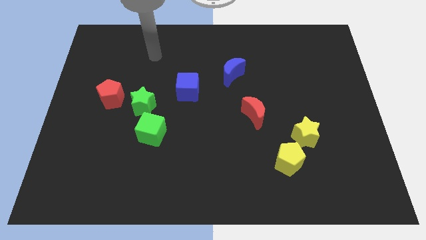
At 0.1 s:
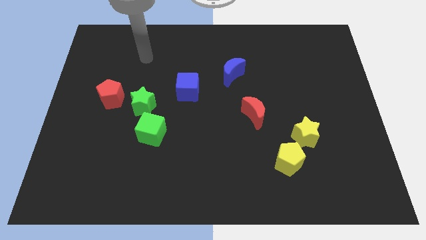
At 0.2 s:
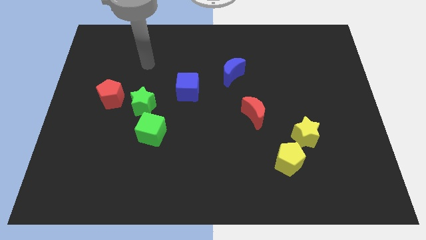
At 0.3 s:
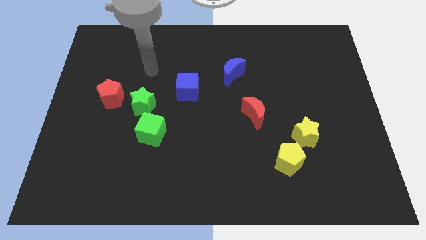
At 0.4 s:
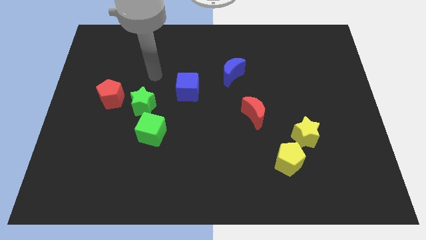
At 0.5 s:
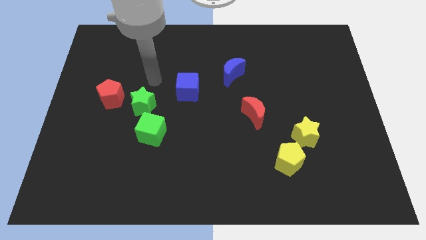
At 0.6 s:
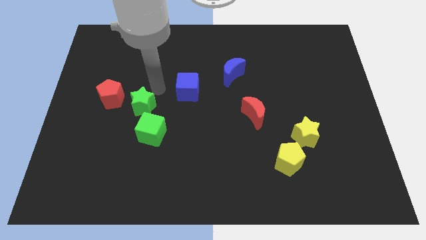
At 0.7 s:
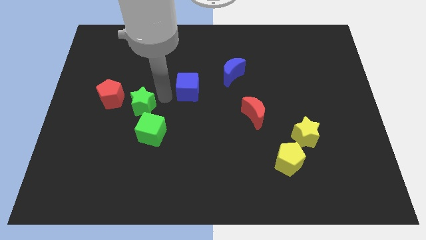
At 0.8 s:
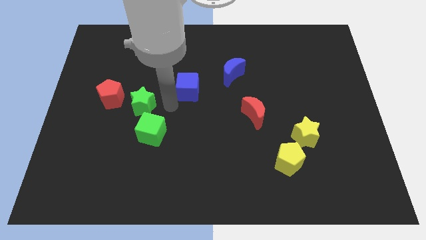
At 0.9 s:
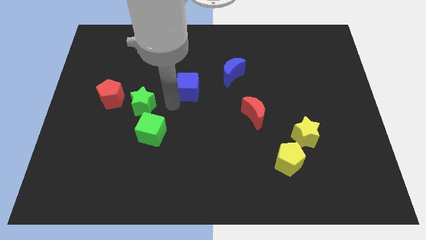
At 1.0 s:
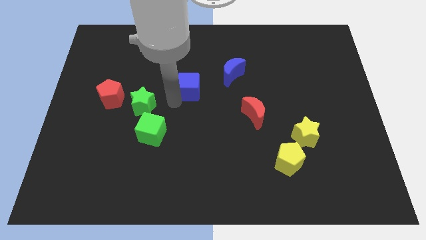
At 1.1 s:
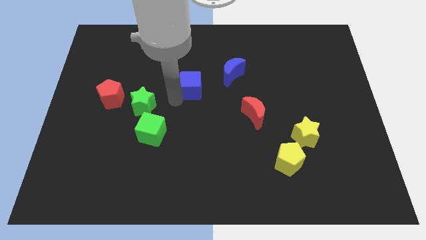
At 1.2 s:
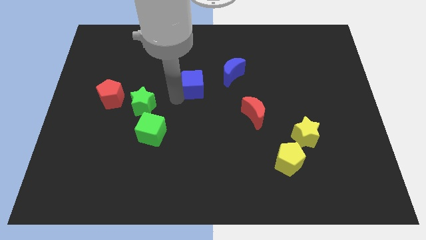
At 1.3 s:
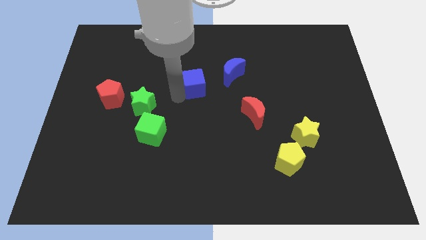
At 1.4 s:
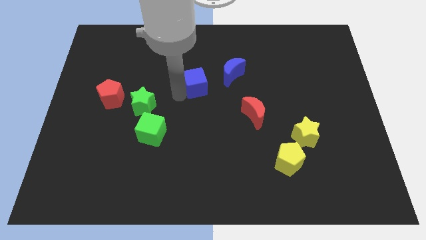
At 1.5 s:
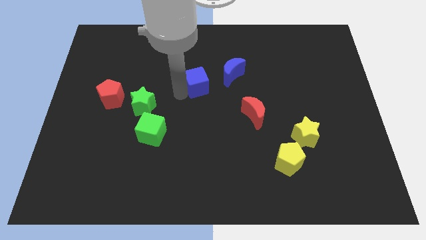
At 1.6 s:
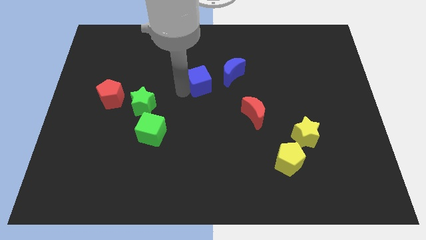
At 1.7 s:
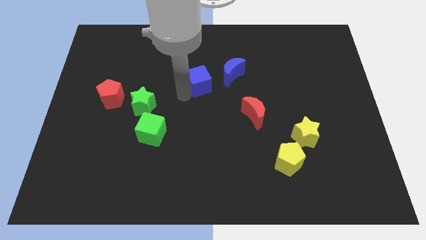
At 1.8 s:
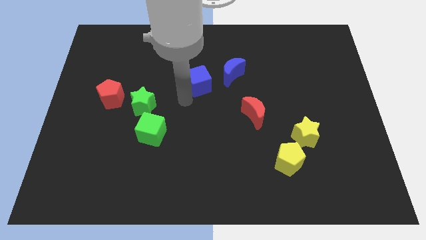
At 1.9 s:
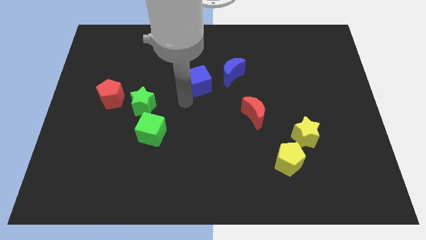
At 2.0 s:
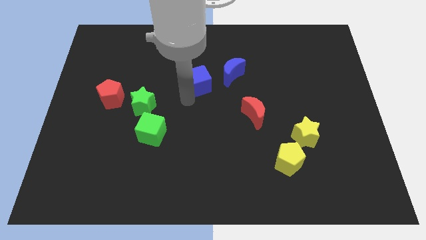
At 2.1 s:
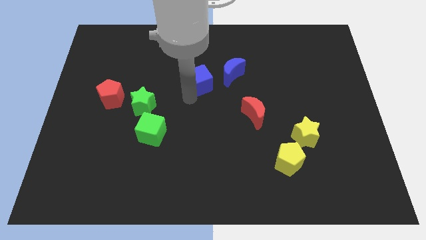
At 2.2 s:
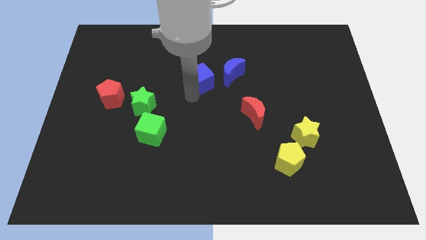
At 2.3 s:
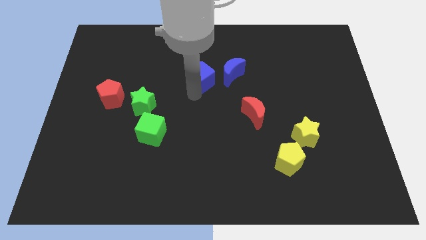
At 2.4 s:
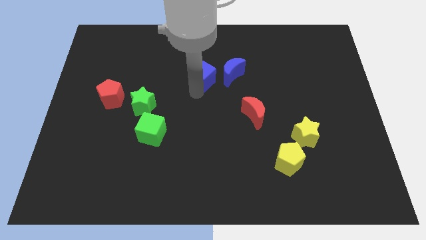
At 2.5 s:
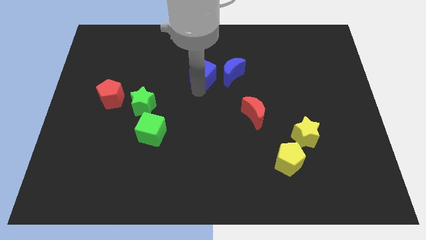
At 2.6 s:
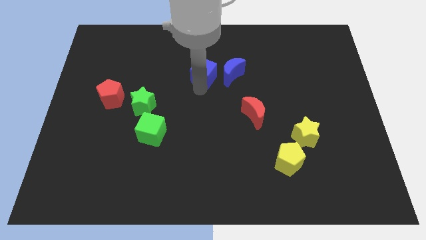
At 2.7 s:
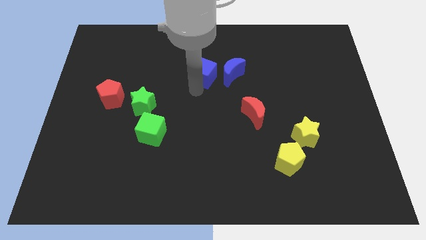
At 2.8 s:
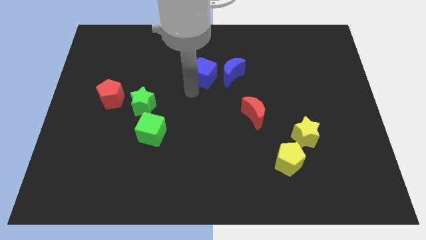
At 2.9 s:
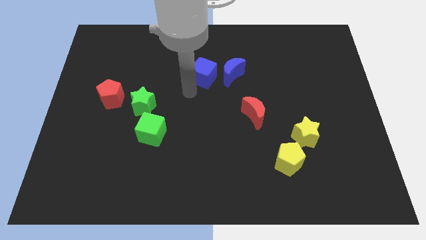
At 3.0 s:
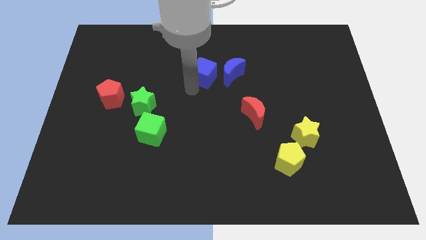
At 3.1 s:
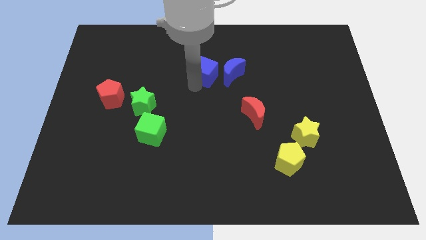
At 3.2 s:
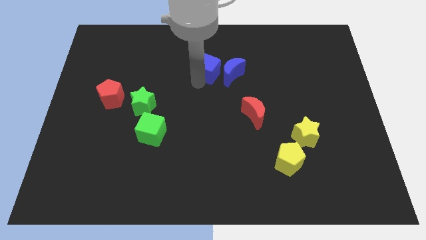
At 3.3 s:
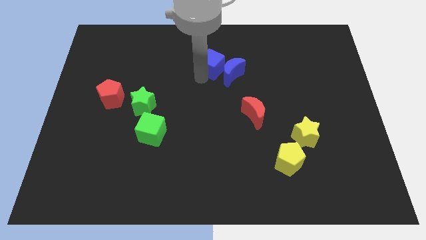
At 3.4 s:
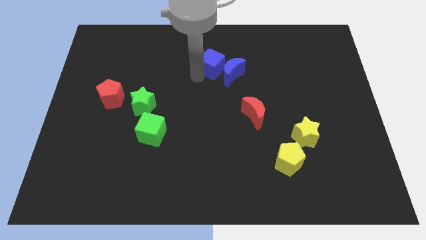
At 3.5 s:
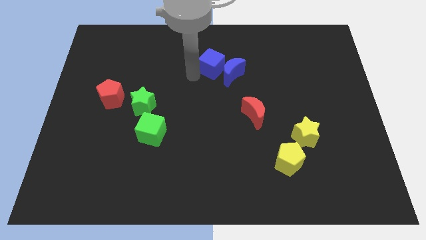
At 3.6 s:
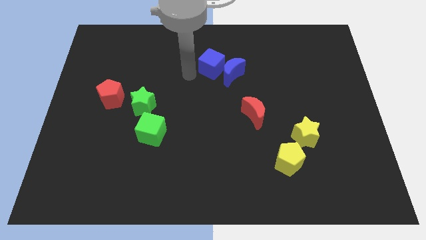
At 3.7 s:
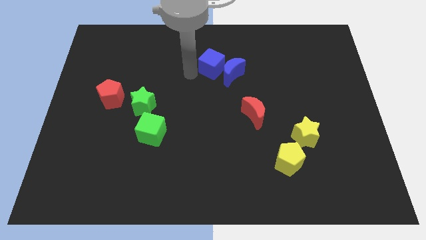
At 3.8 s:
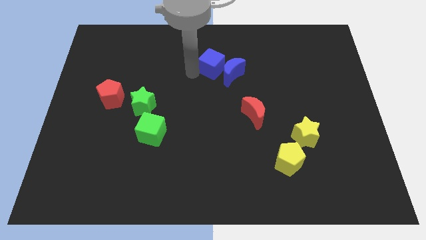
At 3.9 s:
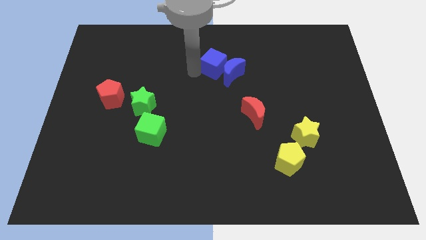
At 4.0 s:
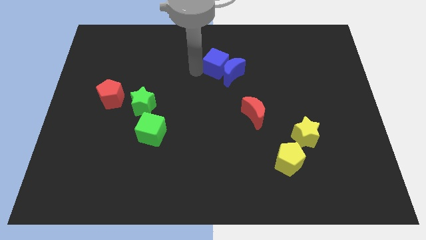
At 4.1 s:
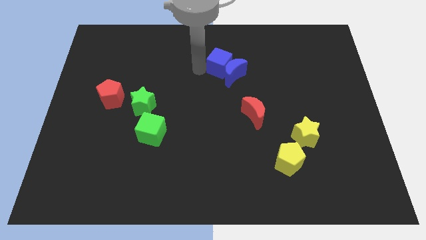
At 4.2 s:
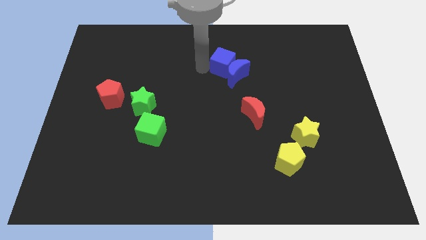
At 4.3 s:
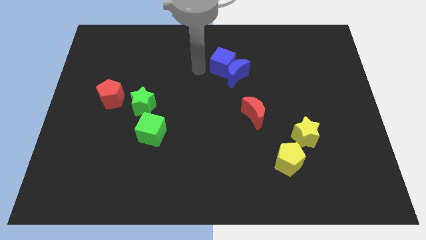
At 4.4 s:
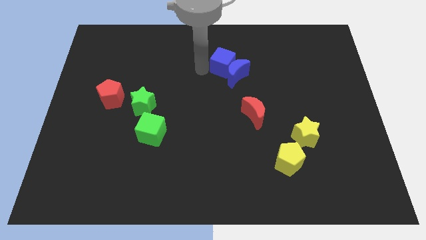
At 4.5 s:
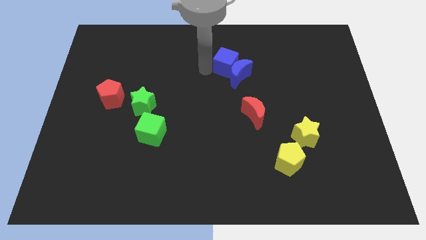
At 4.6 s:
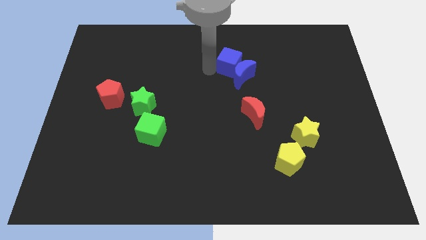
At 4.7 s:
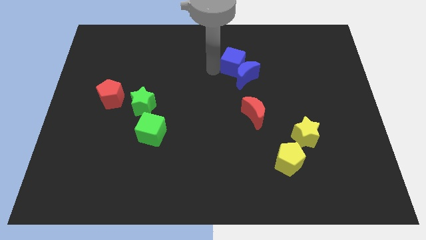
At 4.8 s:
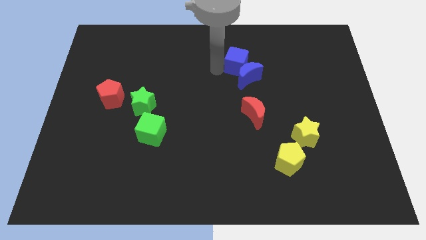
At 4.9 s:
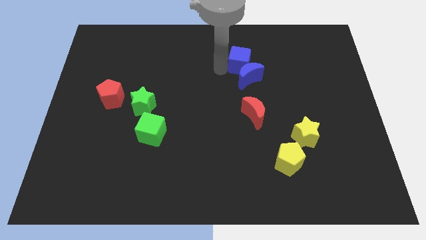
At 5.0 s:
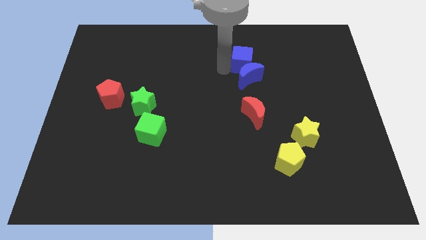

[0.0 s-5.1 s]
move the blue cube diagonally up and to the right of the blue moon

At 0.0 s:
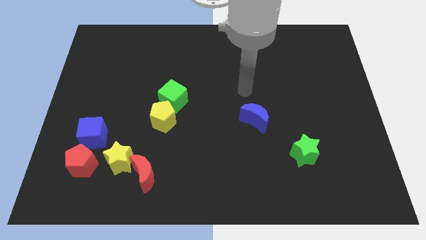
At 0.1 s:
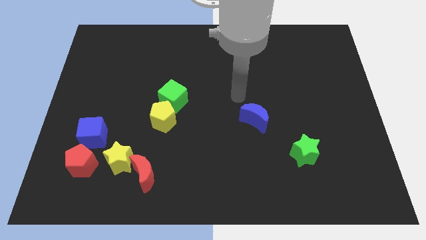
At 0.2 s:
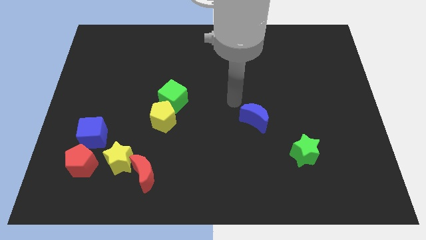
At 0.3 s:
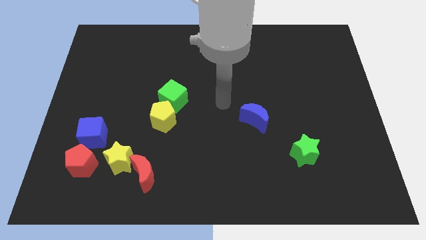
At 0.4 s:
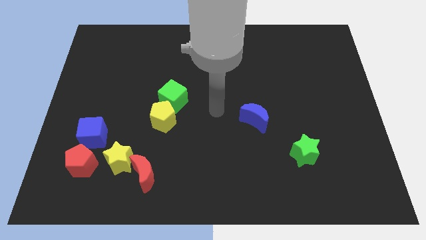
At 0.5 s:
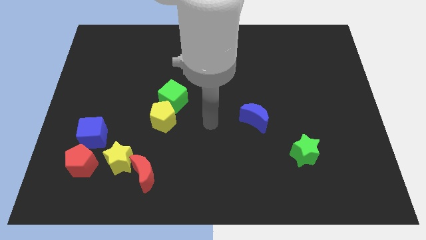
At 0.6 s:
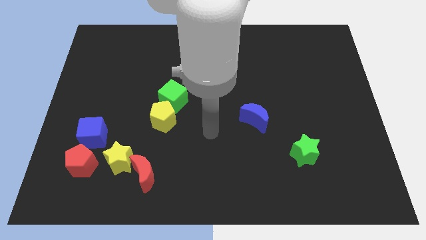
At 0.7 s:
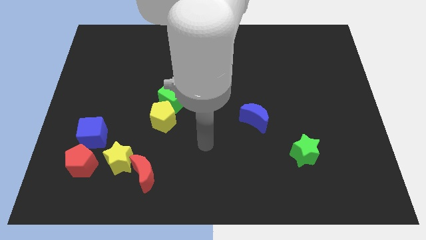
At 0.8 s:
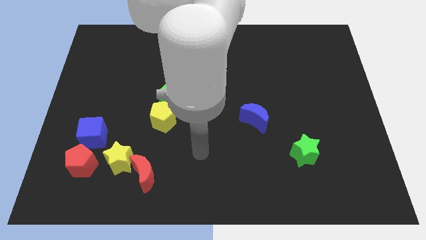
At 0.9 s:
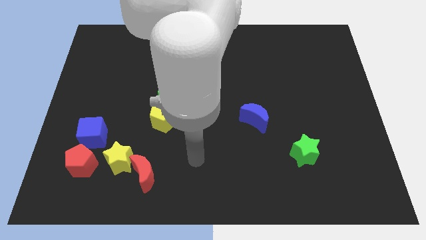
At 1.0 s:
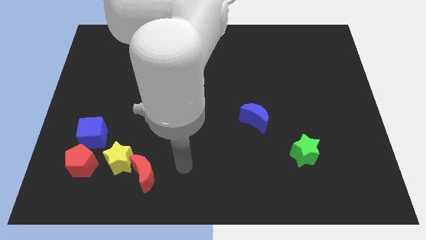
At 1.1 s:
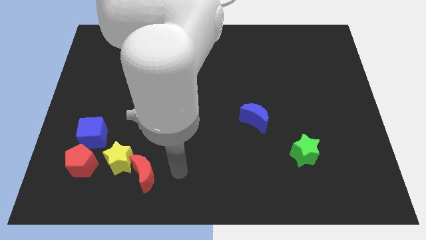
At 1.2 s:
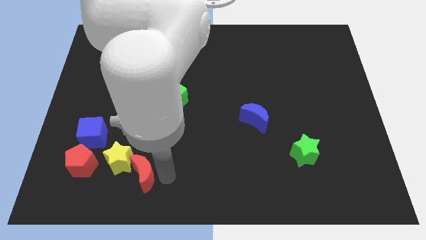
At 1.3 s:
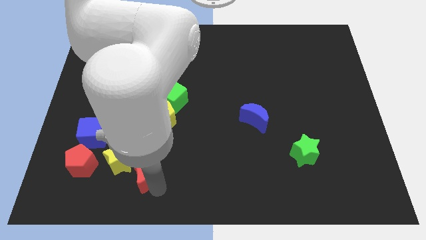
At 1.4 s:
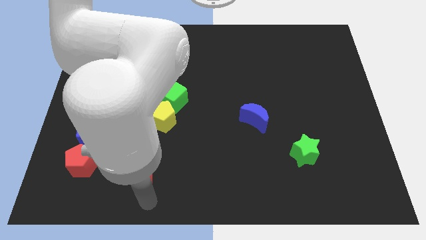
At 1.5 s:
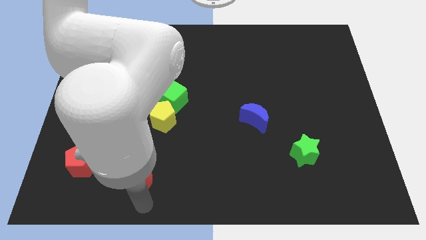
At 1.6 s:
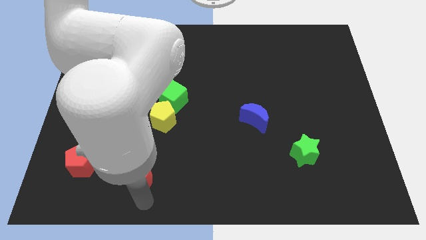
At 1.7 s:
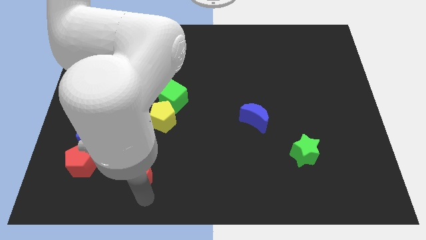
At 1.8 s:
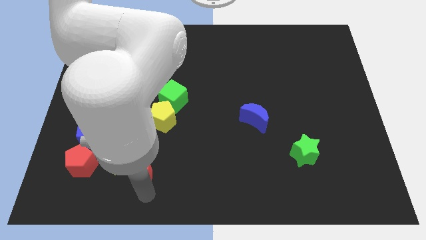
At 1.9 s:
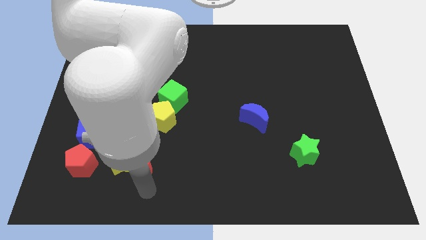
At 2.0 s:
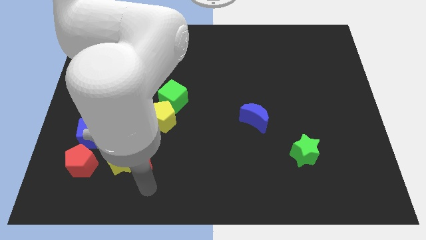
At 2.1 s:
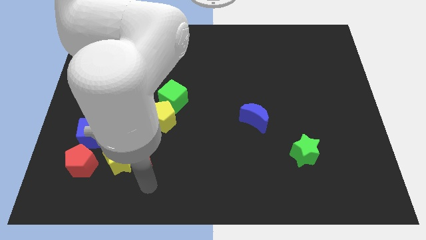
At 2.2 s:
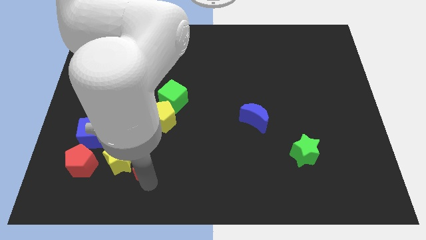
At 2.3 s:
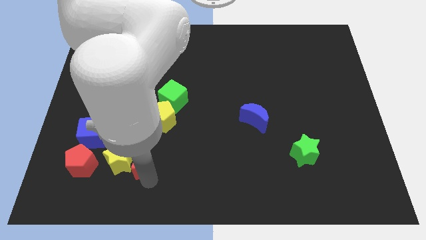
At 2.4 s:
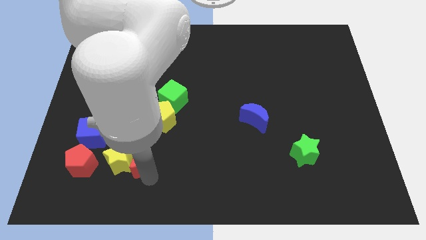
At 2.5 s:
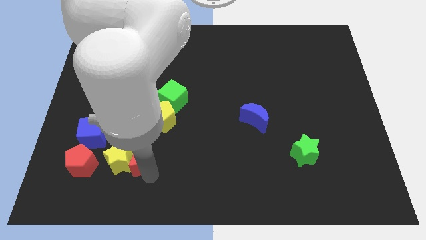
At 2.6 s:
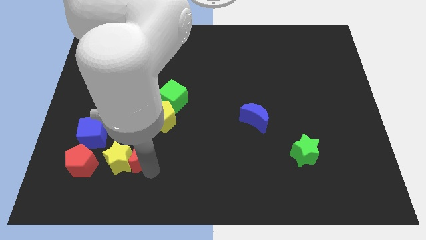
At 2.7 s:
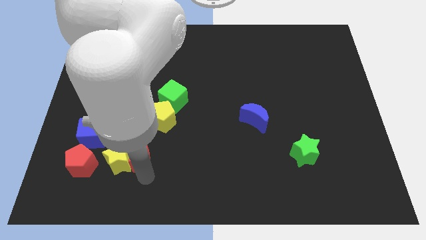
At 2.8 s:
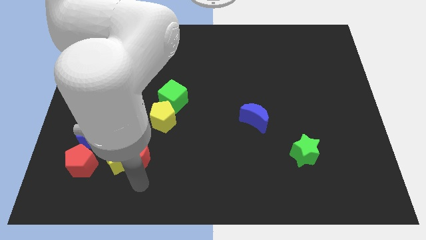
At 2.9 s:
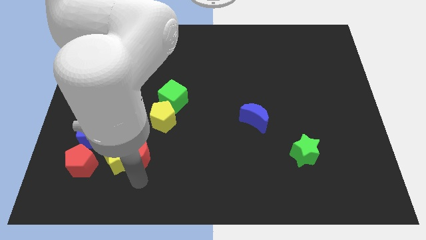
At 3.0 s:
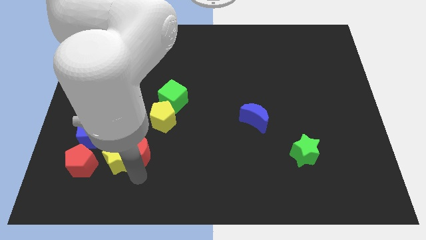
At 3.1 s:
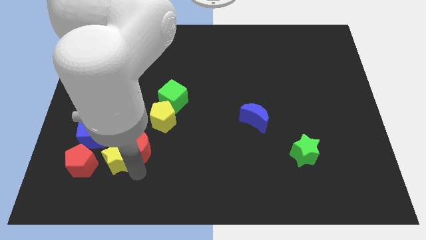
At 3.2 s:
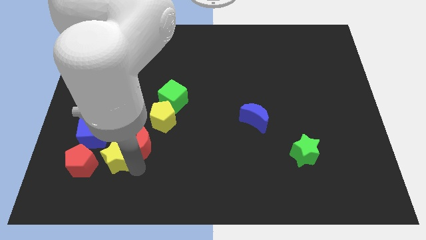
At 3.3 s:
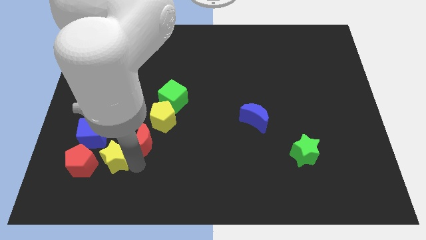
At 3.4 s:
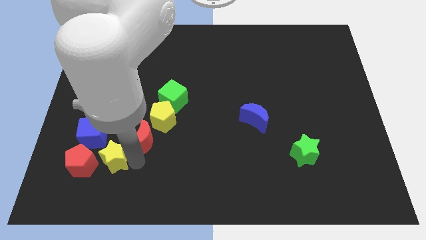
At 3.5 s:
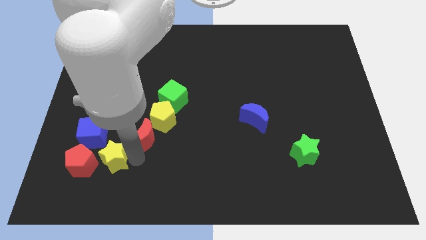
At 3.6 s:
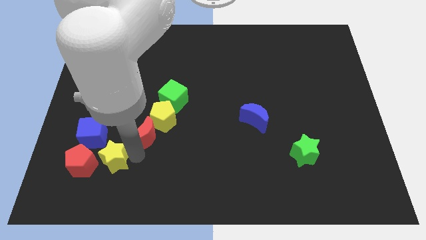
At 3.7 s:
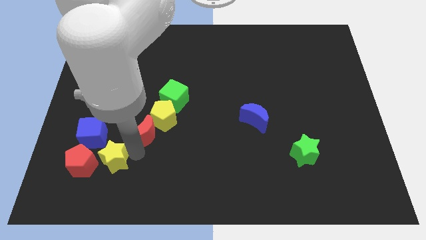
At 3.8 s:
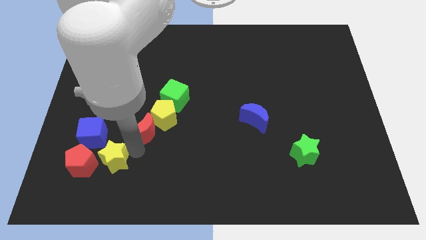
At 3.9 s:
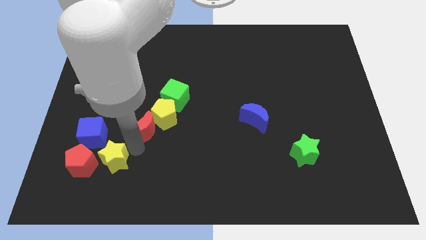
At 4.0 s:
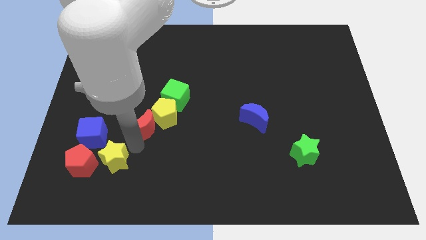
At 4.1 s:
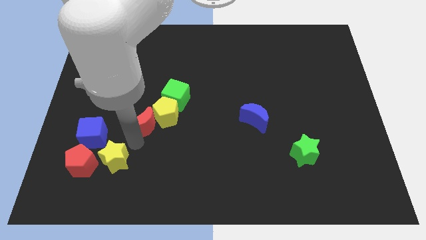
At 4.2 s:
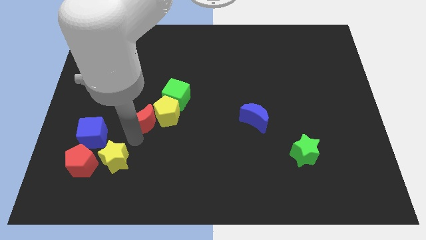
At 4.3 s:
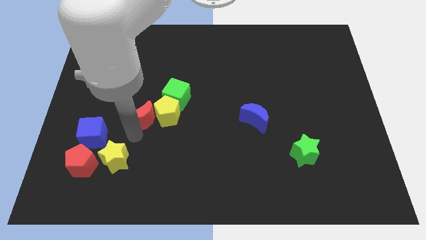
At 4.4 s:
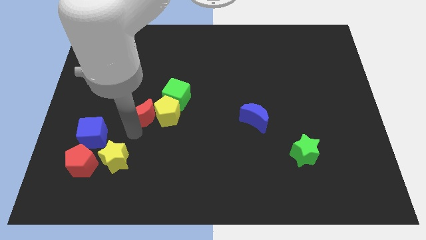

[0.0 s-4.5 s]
push the red moon to the top left side of the yellow pentagon
